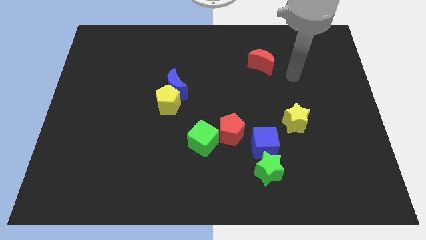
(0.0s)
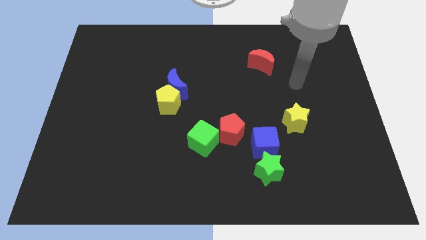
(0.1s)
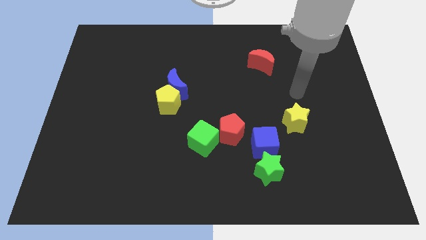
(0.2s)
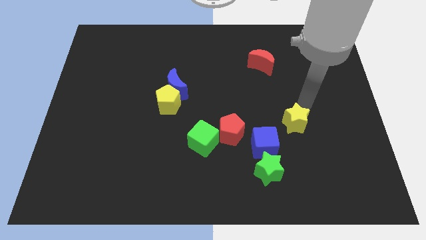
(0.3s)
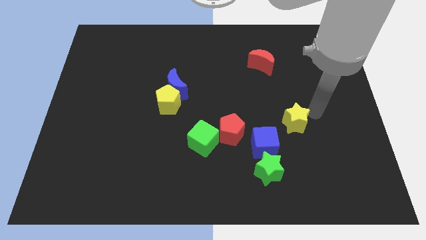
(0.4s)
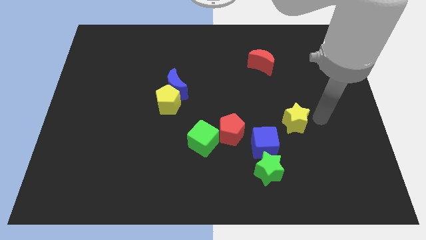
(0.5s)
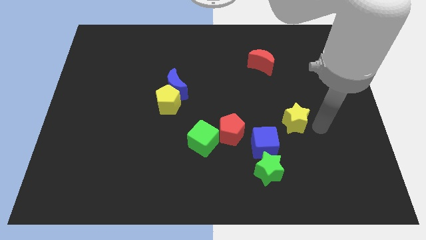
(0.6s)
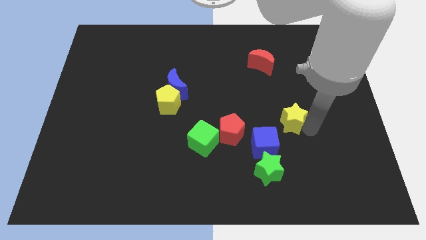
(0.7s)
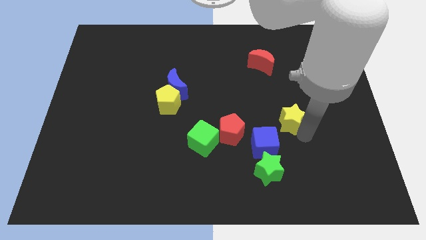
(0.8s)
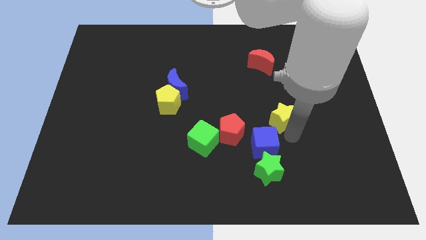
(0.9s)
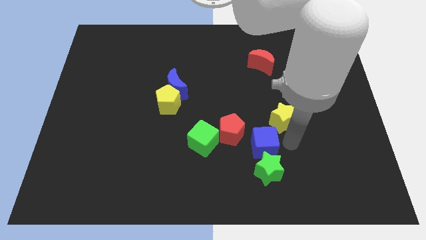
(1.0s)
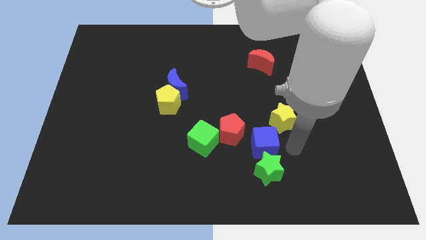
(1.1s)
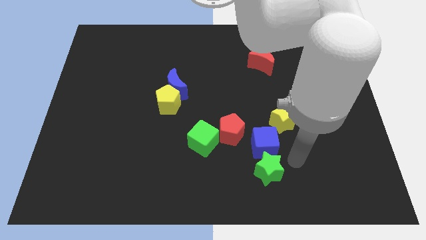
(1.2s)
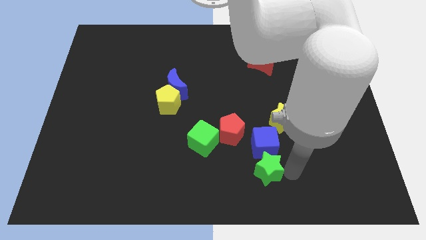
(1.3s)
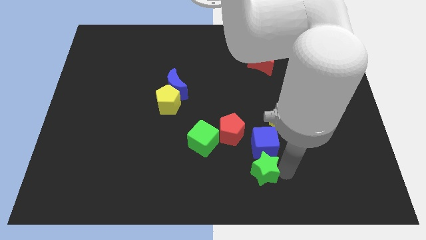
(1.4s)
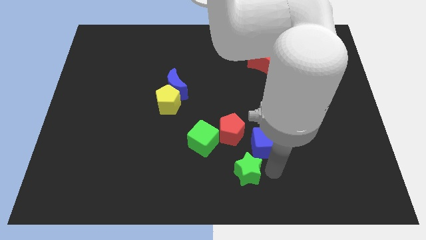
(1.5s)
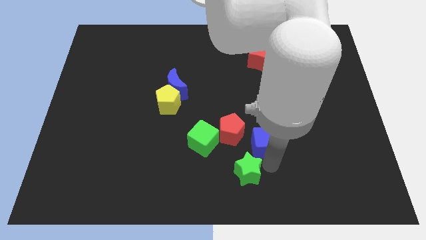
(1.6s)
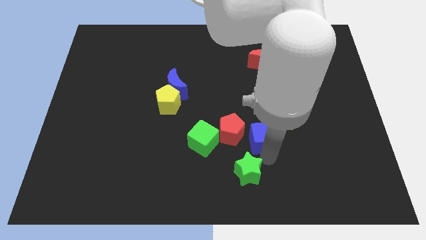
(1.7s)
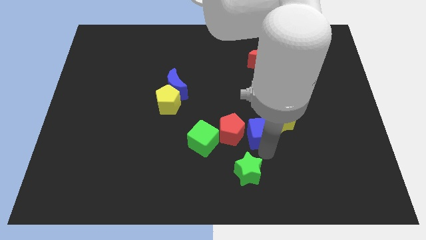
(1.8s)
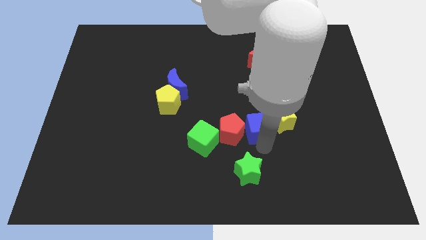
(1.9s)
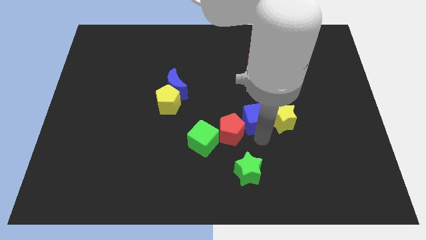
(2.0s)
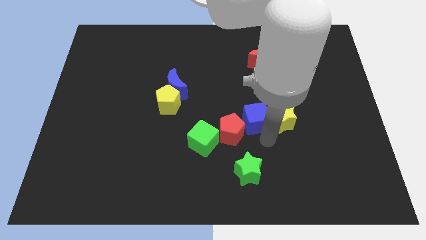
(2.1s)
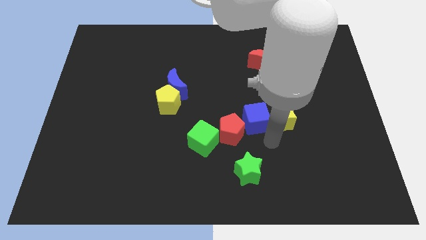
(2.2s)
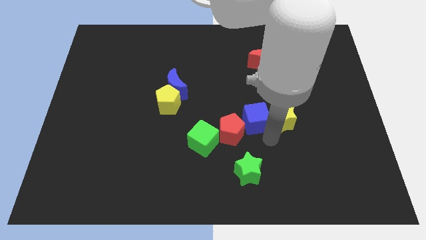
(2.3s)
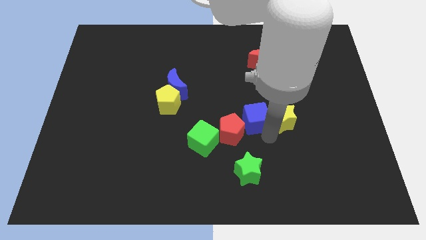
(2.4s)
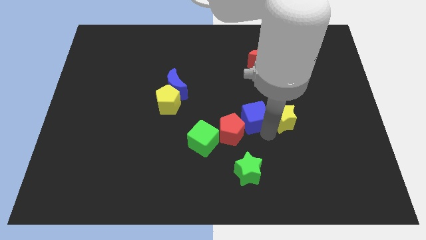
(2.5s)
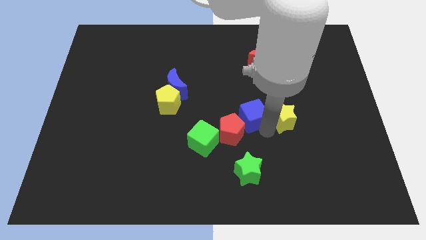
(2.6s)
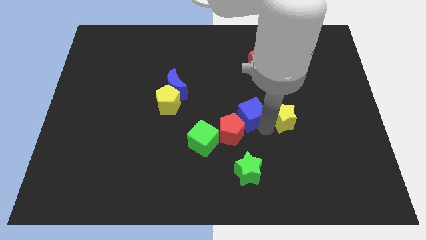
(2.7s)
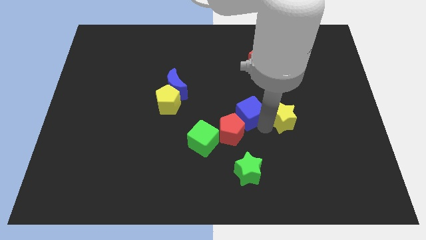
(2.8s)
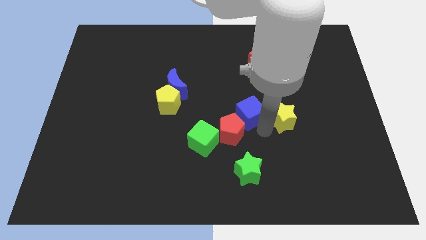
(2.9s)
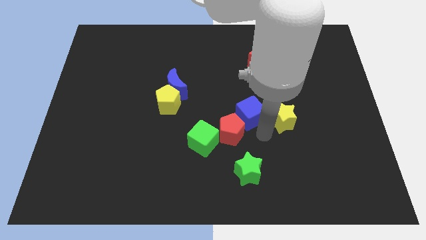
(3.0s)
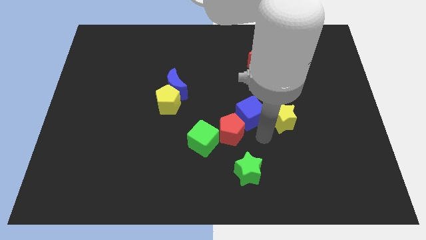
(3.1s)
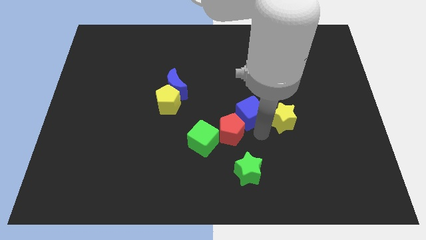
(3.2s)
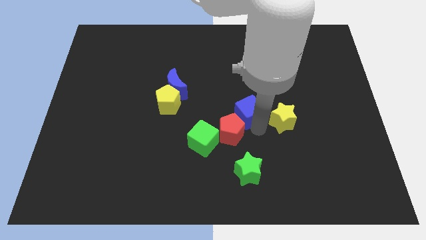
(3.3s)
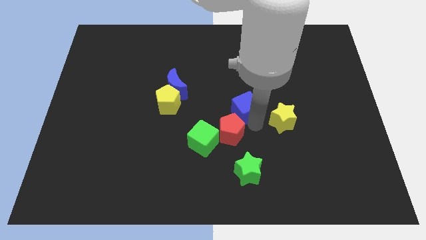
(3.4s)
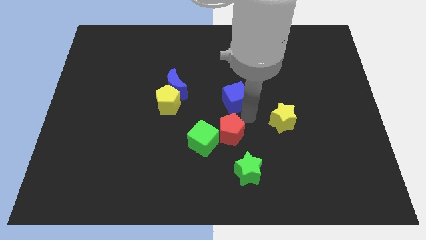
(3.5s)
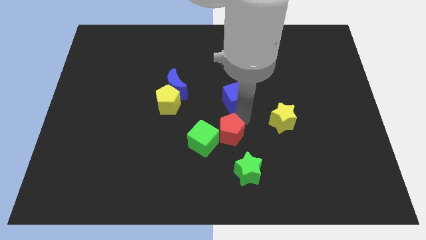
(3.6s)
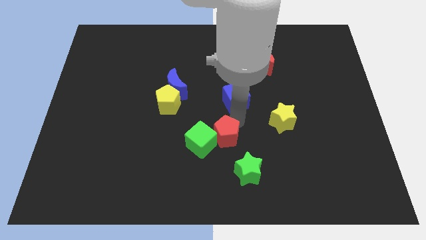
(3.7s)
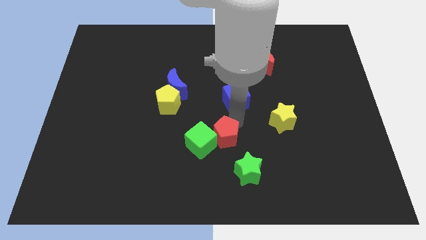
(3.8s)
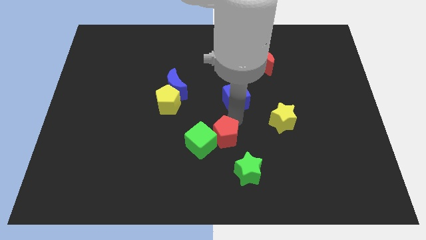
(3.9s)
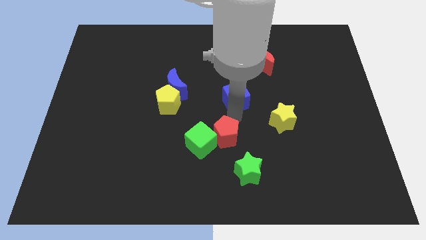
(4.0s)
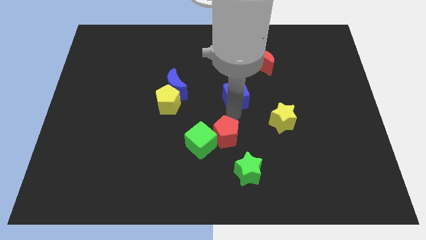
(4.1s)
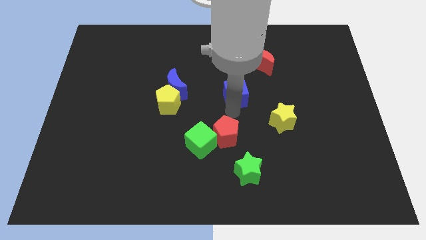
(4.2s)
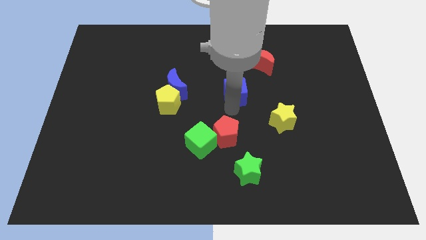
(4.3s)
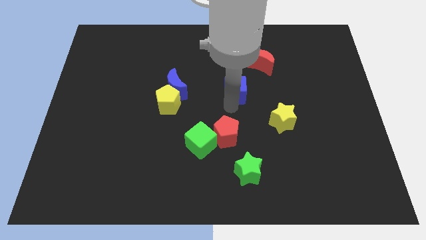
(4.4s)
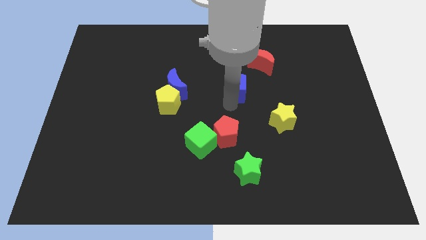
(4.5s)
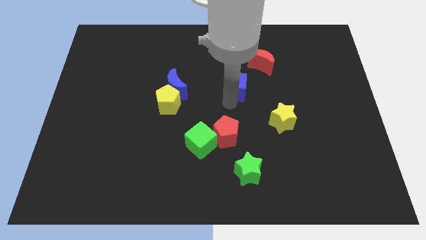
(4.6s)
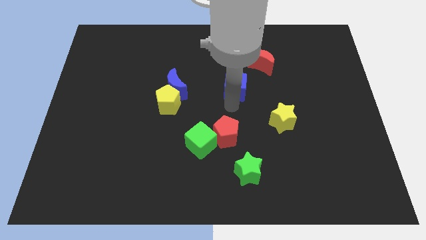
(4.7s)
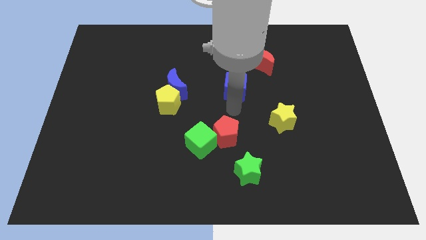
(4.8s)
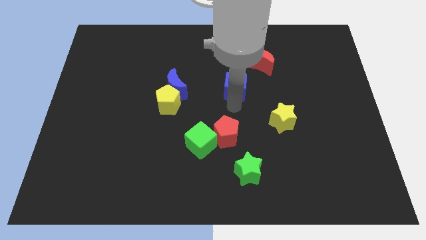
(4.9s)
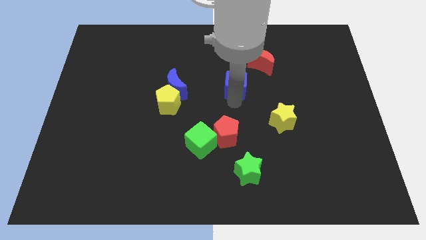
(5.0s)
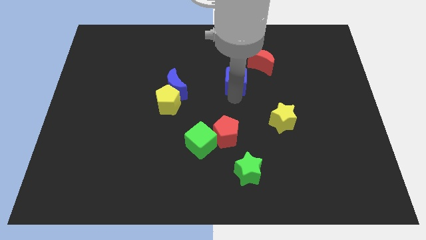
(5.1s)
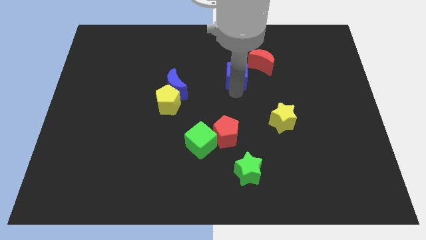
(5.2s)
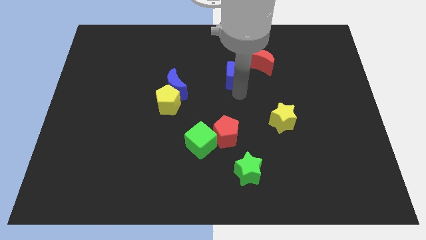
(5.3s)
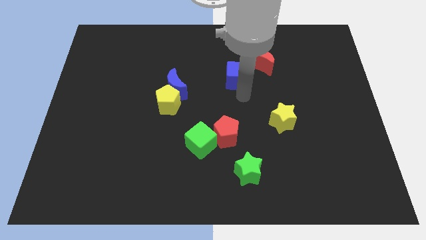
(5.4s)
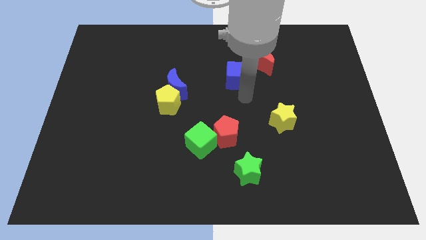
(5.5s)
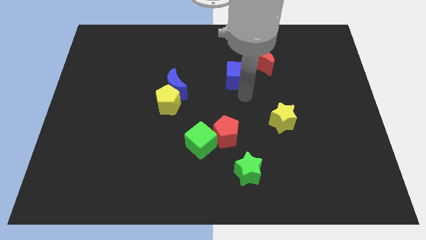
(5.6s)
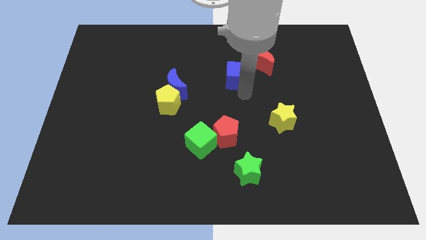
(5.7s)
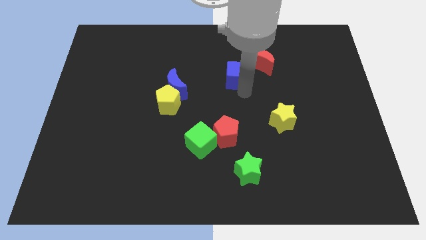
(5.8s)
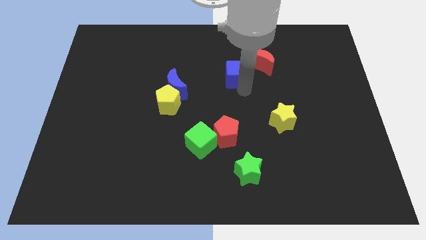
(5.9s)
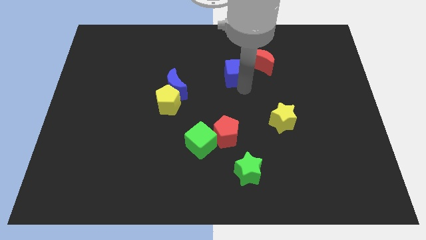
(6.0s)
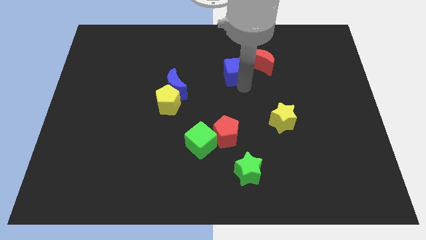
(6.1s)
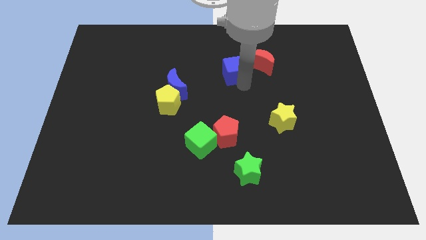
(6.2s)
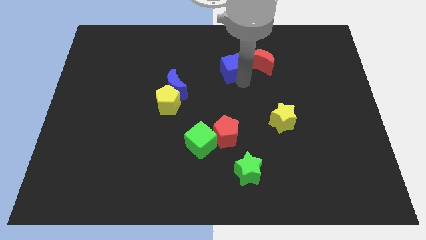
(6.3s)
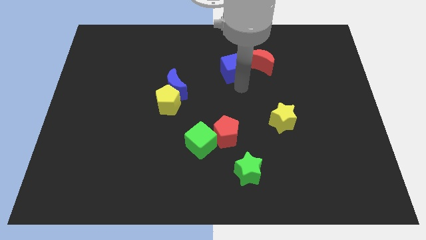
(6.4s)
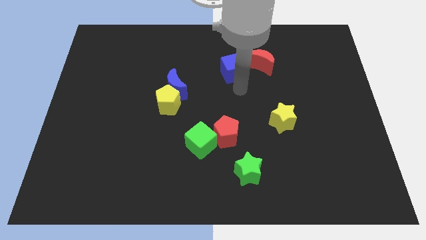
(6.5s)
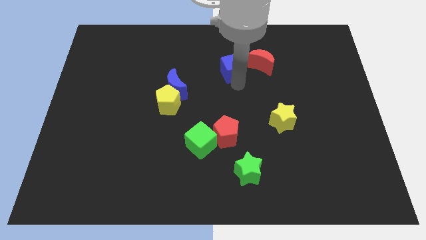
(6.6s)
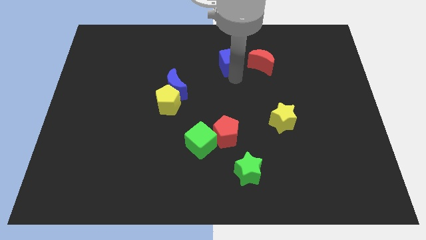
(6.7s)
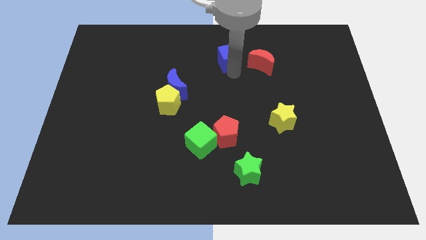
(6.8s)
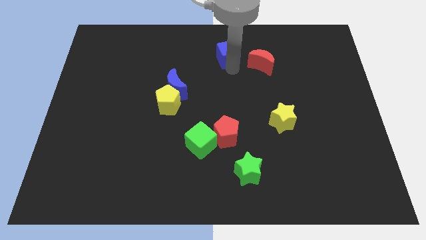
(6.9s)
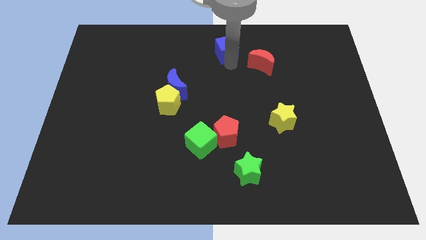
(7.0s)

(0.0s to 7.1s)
push the blue cube to the top side
